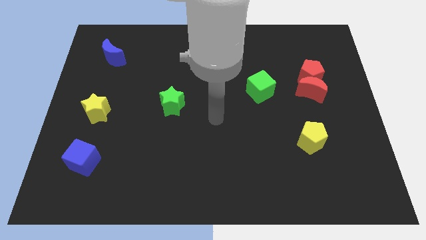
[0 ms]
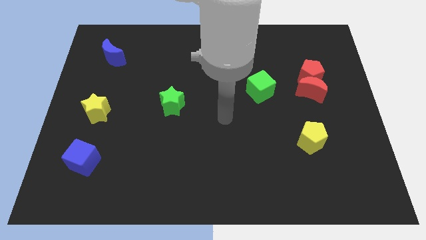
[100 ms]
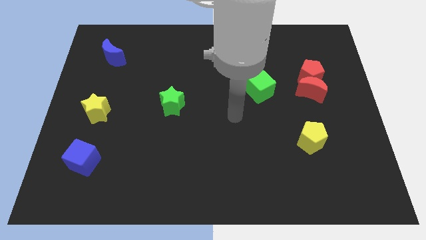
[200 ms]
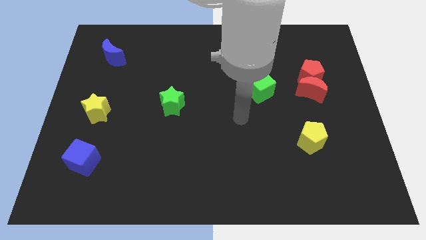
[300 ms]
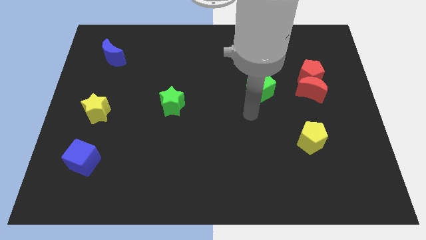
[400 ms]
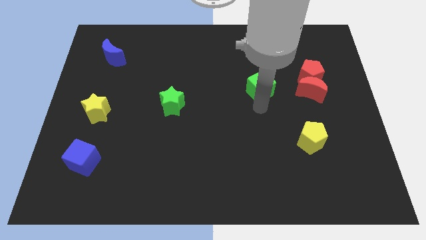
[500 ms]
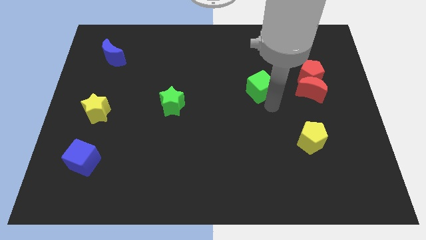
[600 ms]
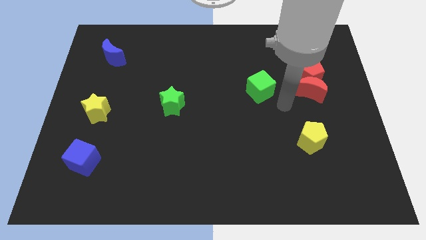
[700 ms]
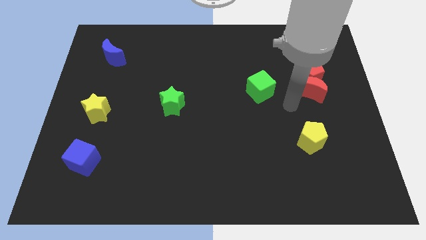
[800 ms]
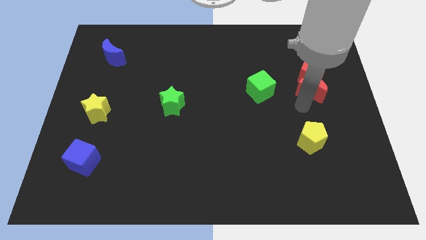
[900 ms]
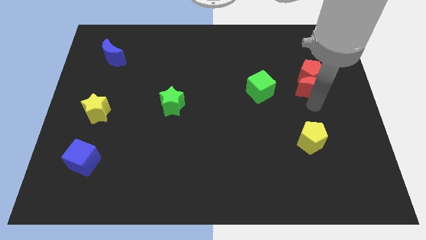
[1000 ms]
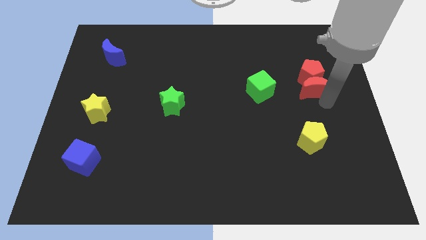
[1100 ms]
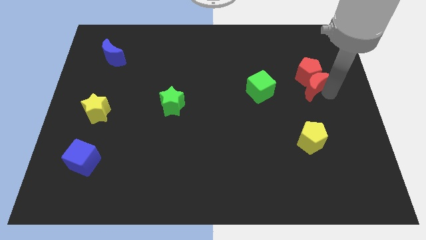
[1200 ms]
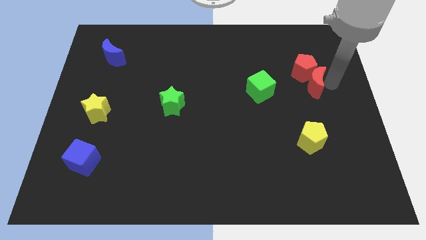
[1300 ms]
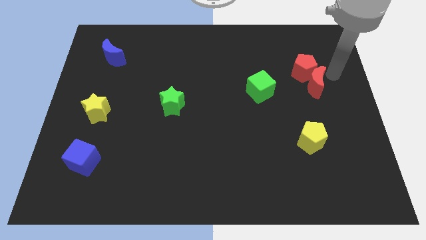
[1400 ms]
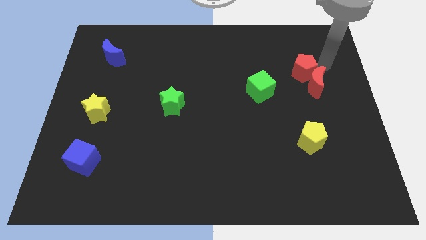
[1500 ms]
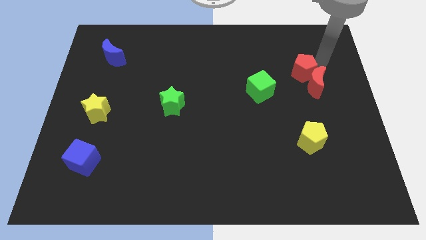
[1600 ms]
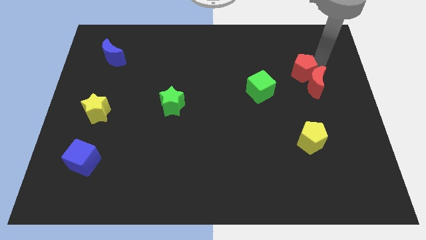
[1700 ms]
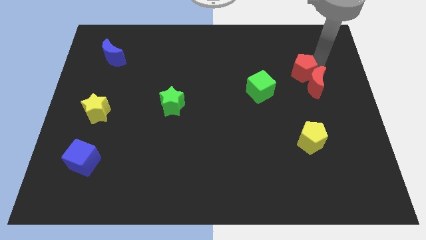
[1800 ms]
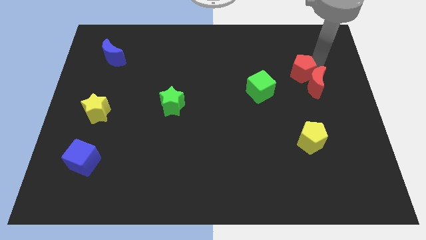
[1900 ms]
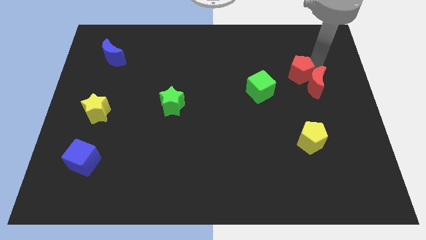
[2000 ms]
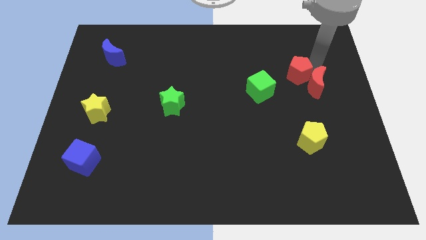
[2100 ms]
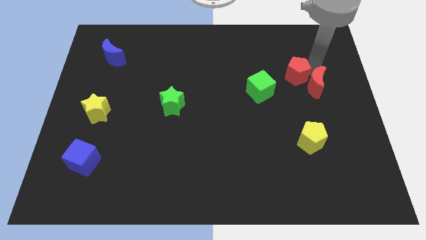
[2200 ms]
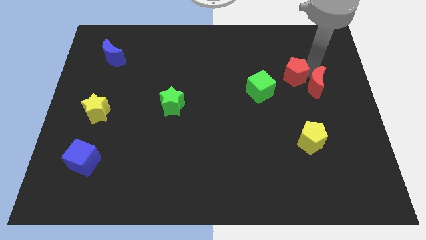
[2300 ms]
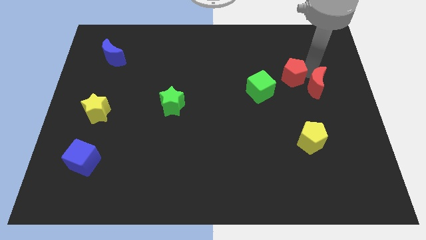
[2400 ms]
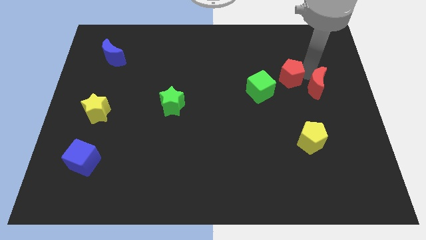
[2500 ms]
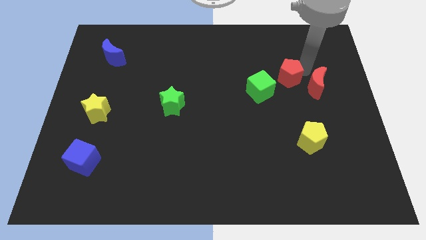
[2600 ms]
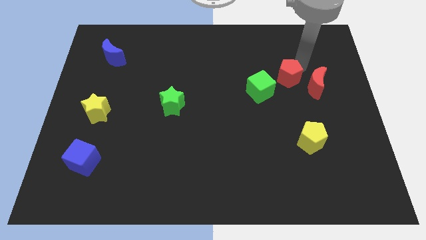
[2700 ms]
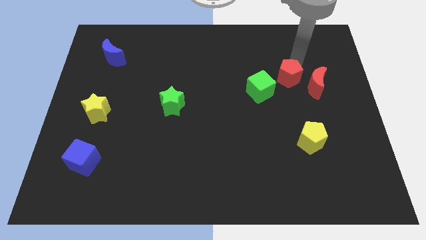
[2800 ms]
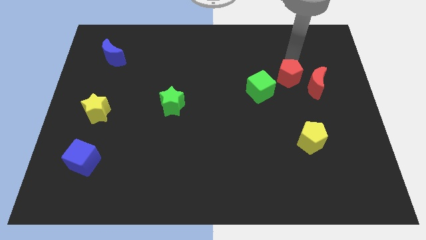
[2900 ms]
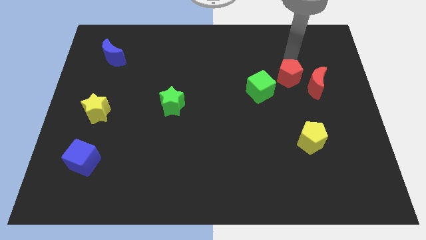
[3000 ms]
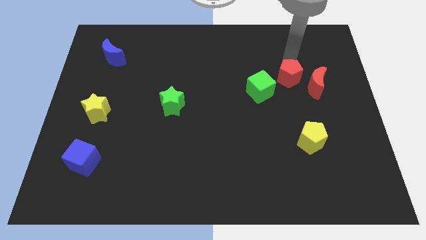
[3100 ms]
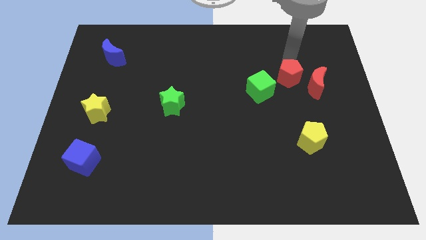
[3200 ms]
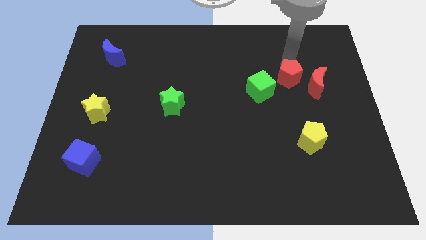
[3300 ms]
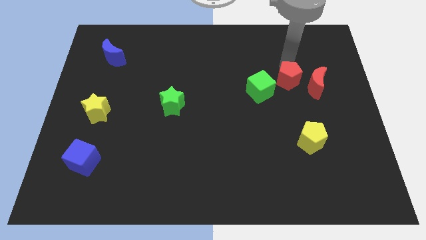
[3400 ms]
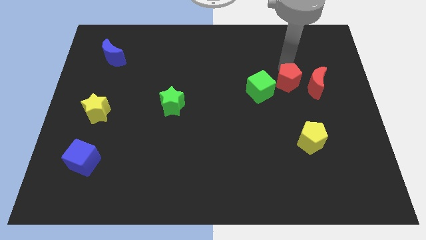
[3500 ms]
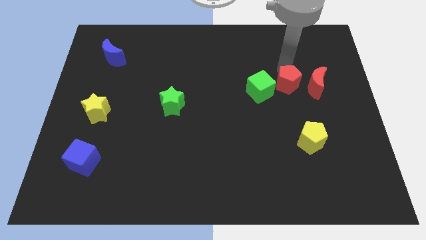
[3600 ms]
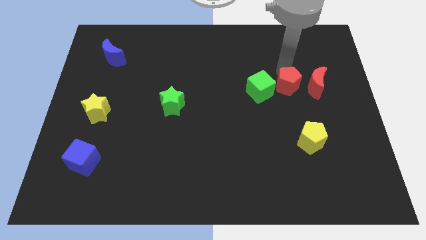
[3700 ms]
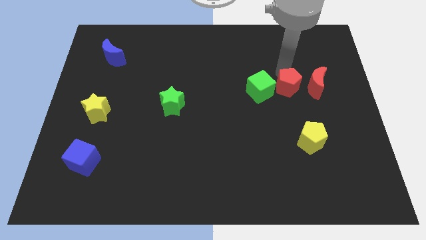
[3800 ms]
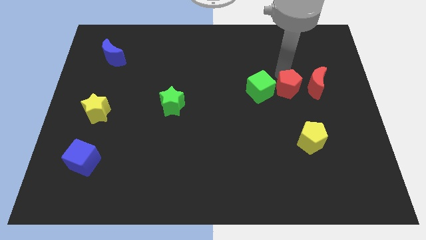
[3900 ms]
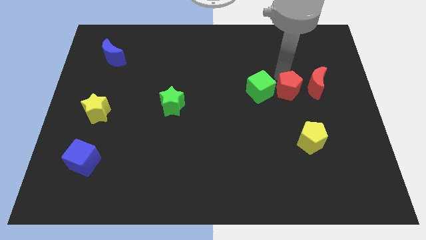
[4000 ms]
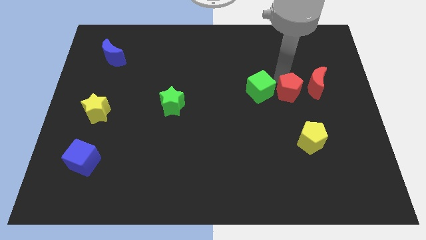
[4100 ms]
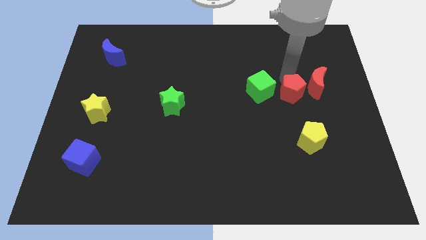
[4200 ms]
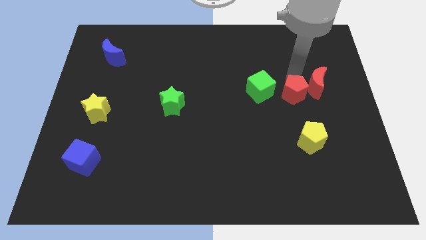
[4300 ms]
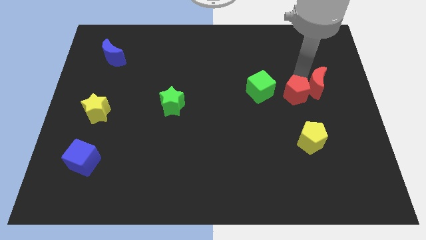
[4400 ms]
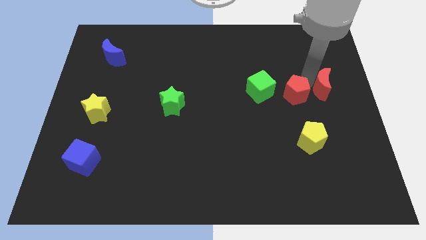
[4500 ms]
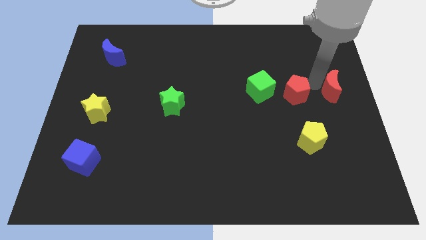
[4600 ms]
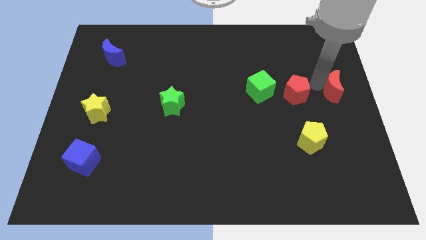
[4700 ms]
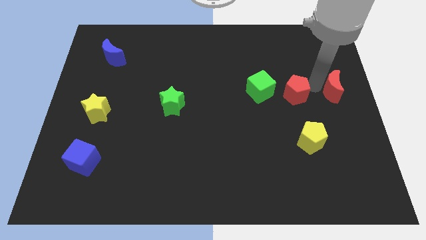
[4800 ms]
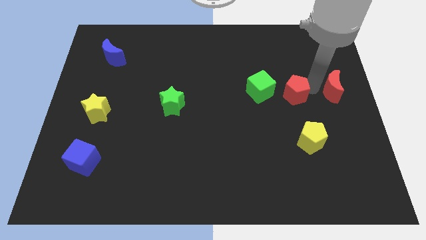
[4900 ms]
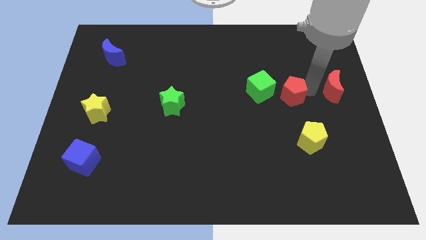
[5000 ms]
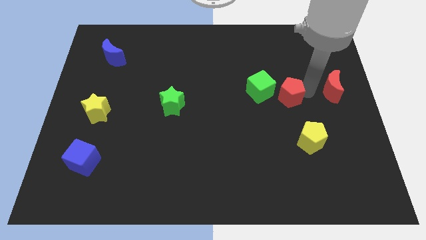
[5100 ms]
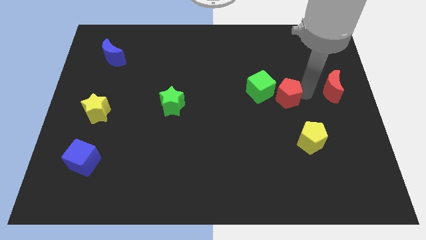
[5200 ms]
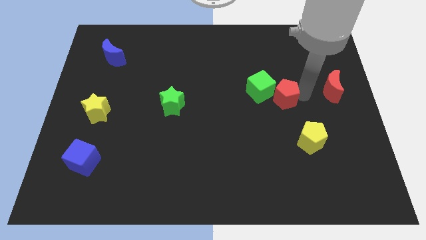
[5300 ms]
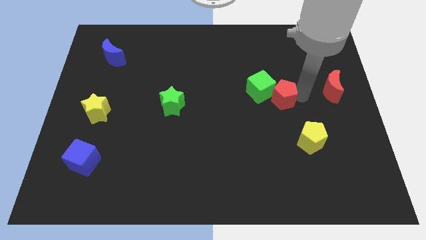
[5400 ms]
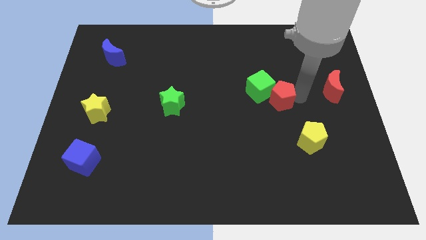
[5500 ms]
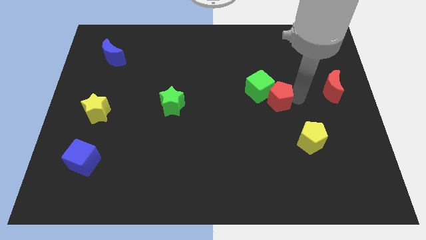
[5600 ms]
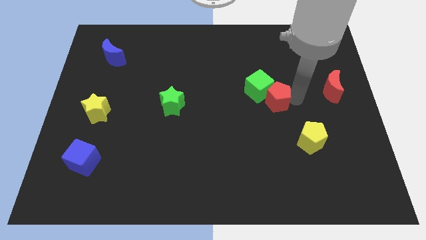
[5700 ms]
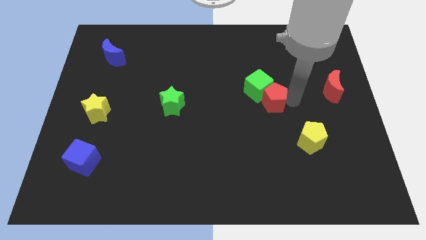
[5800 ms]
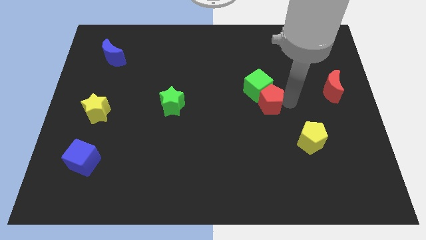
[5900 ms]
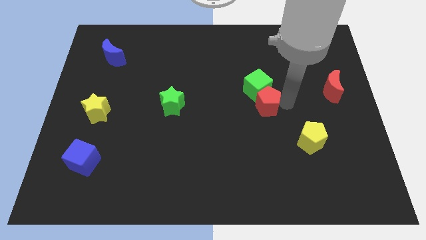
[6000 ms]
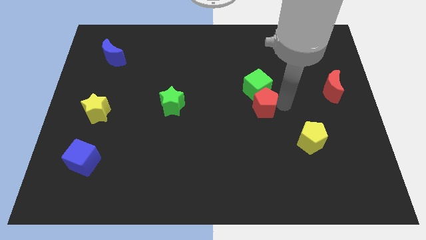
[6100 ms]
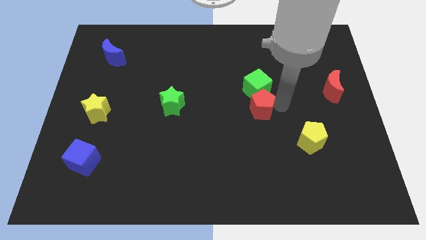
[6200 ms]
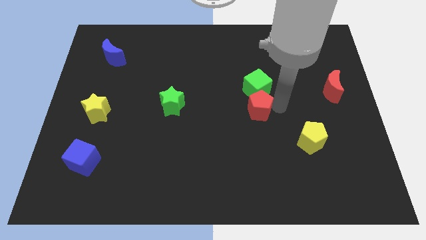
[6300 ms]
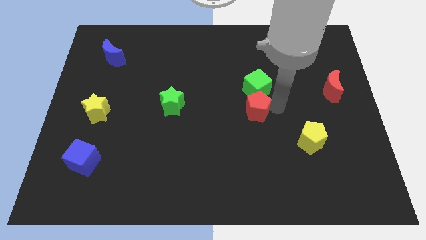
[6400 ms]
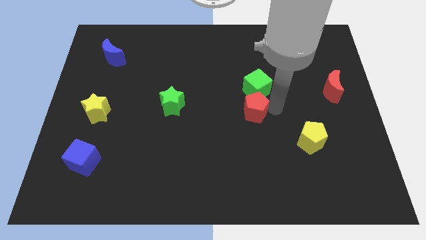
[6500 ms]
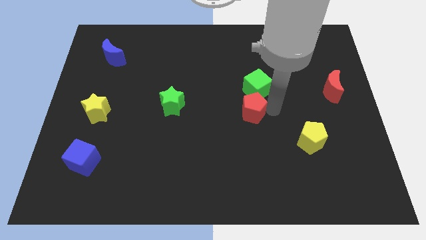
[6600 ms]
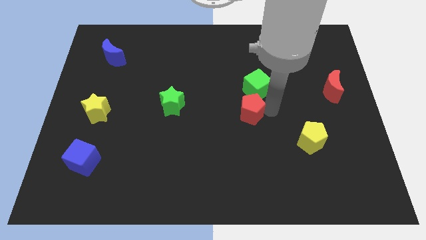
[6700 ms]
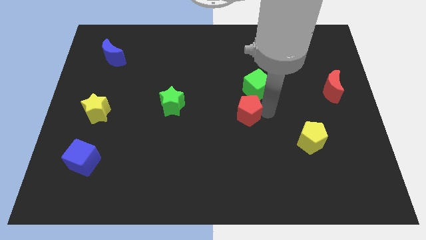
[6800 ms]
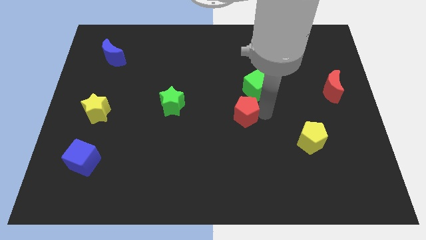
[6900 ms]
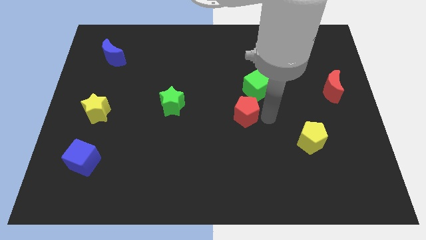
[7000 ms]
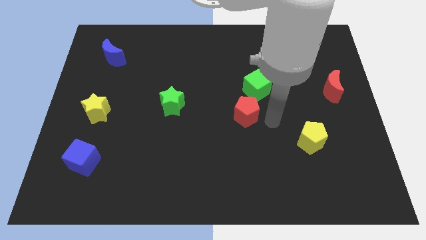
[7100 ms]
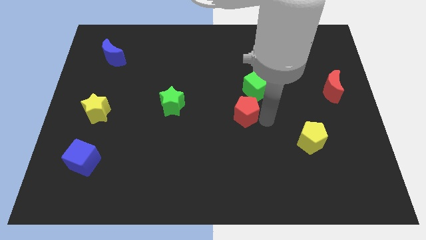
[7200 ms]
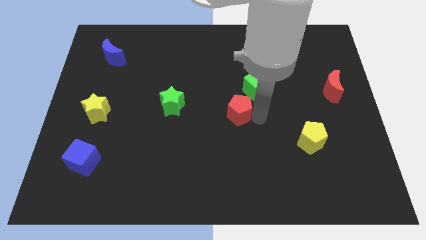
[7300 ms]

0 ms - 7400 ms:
slide the red pentagon right of the green star

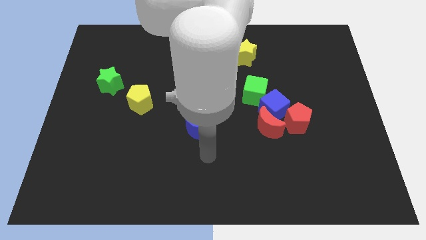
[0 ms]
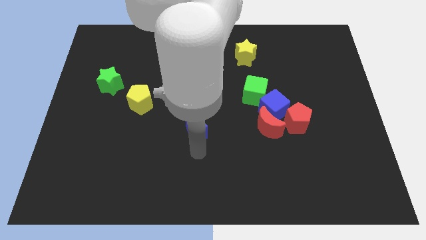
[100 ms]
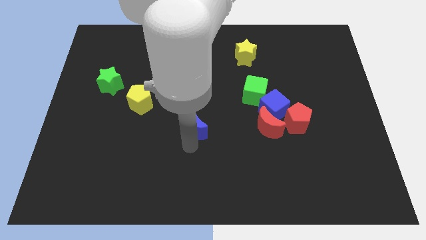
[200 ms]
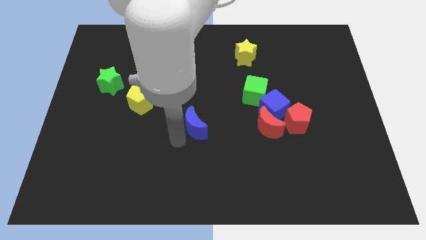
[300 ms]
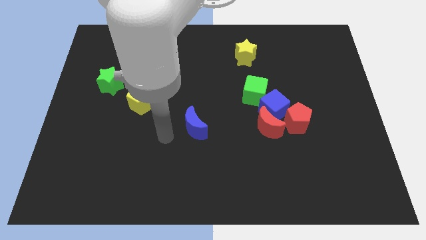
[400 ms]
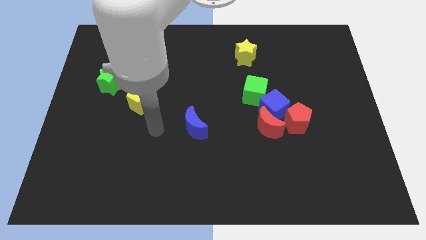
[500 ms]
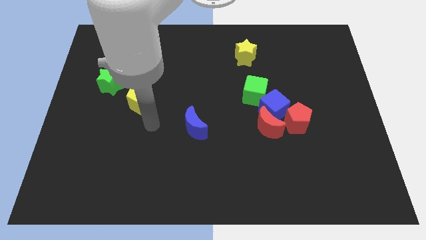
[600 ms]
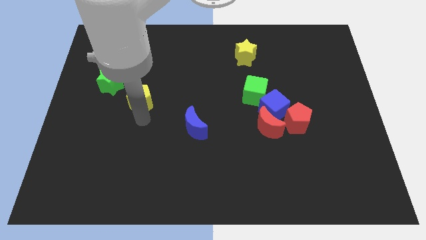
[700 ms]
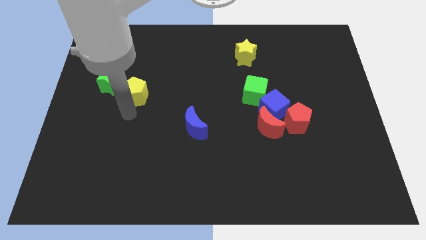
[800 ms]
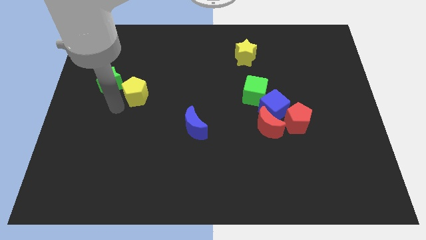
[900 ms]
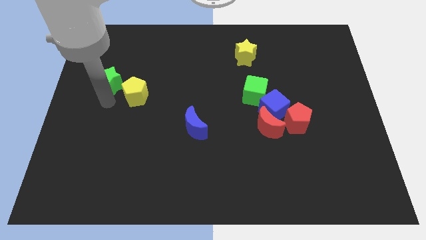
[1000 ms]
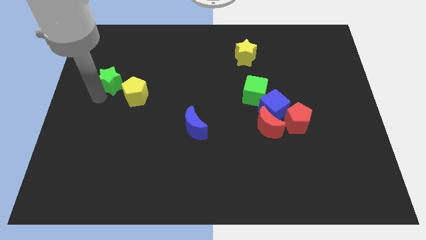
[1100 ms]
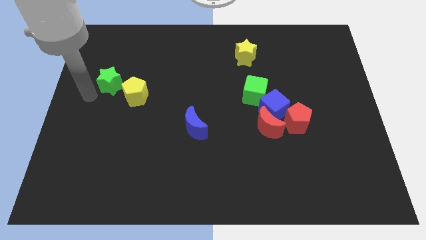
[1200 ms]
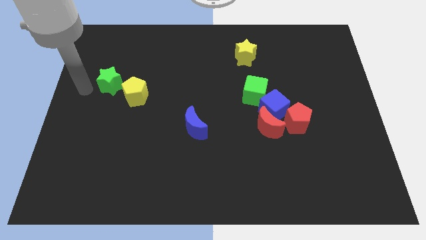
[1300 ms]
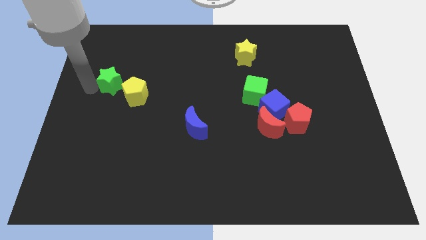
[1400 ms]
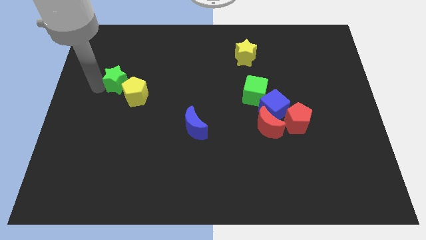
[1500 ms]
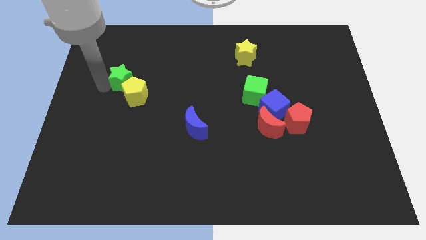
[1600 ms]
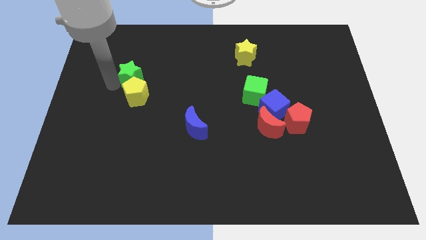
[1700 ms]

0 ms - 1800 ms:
push the green star to the top right side of the yellow pentagon
